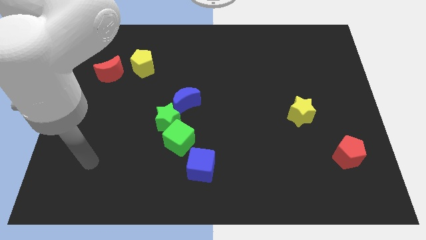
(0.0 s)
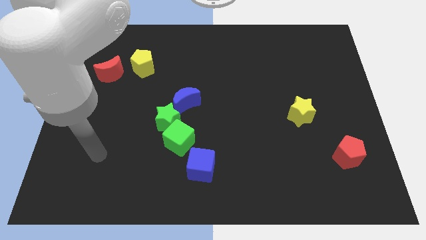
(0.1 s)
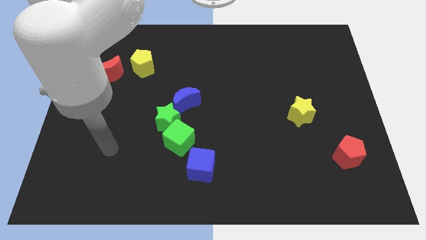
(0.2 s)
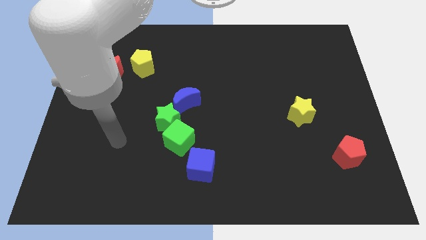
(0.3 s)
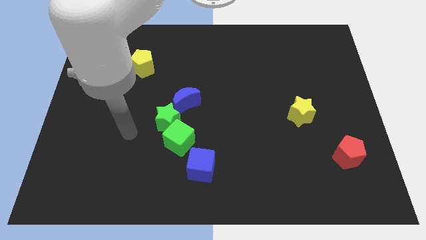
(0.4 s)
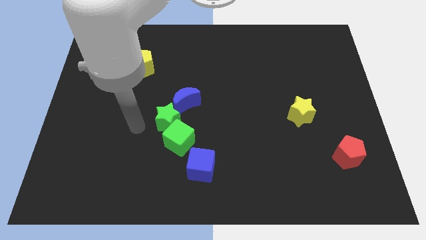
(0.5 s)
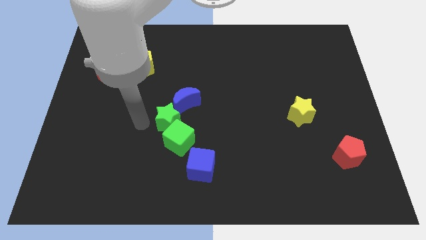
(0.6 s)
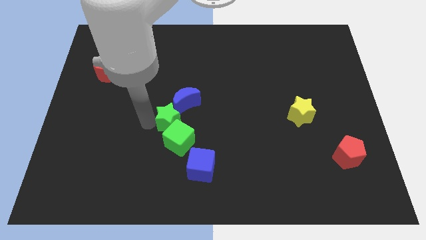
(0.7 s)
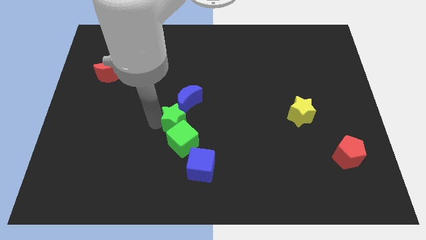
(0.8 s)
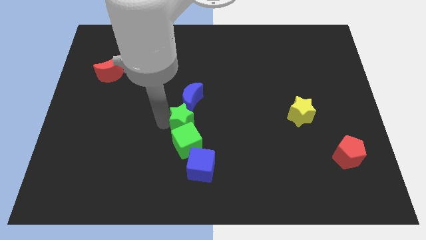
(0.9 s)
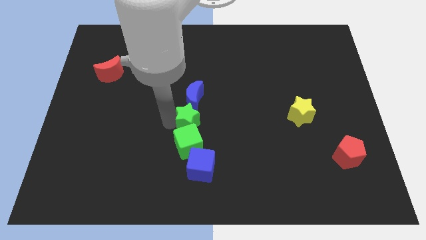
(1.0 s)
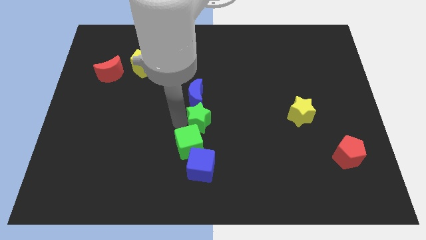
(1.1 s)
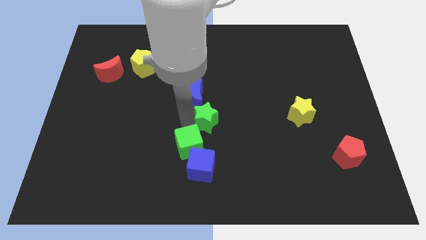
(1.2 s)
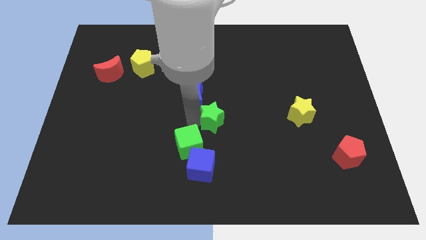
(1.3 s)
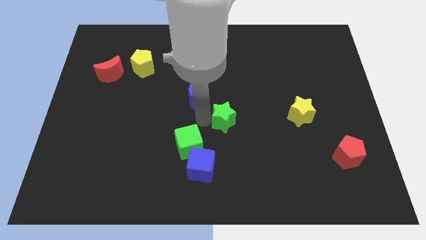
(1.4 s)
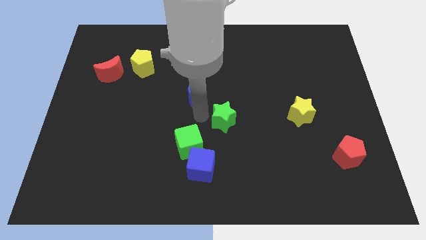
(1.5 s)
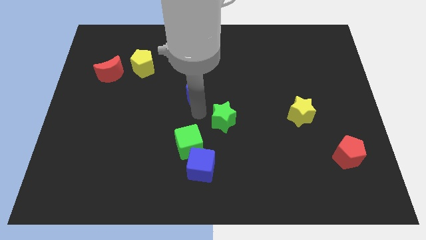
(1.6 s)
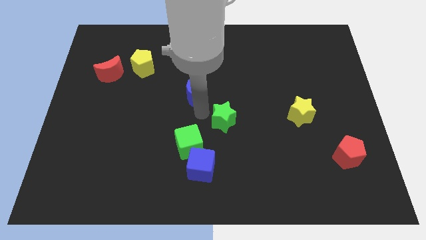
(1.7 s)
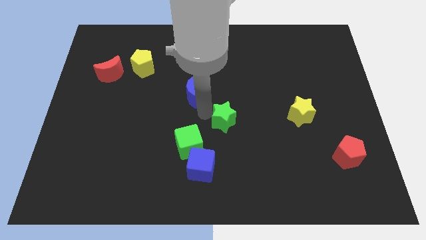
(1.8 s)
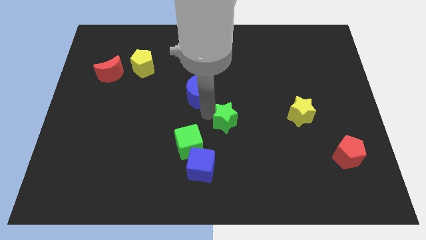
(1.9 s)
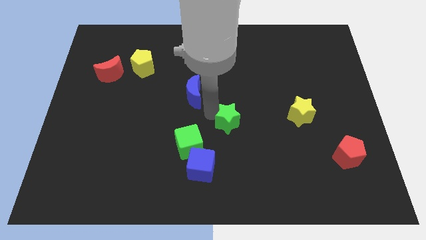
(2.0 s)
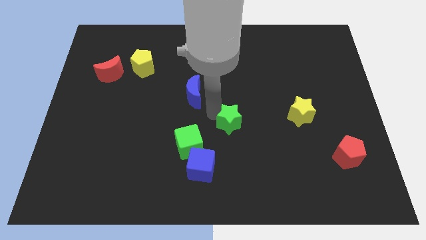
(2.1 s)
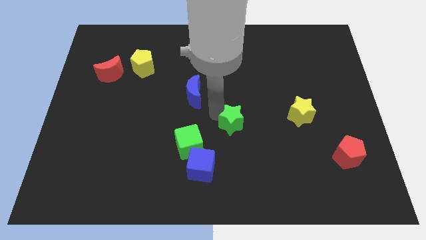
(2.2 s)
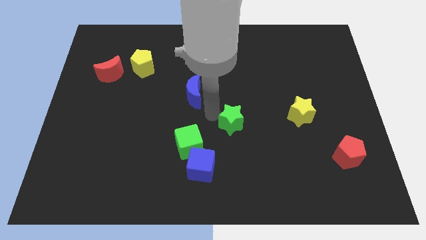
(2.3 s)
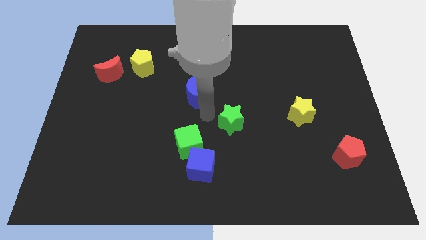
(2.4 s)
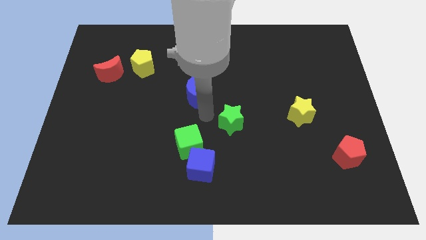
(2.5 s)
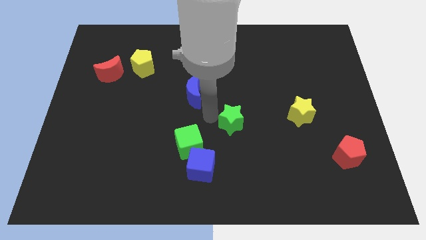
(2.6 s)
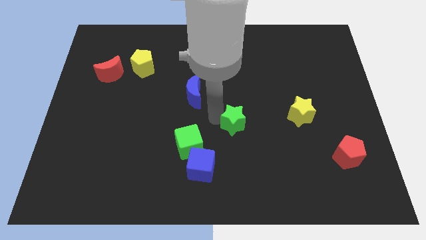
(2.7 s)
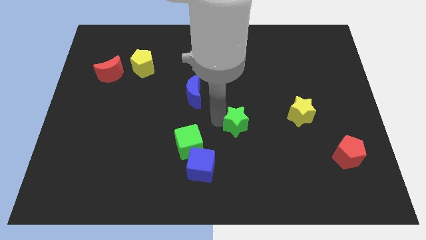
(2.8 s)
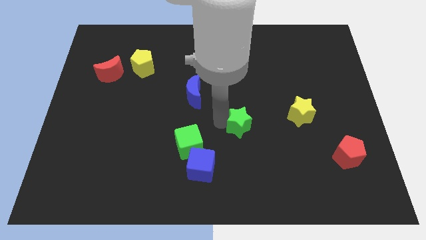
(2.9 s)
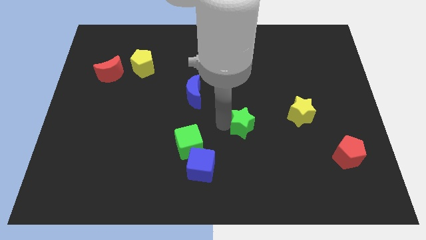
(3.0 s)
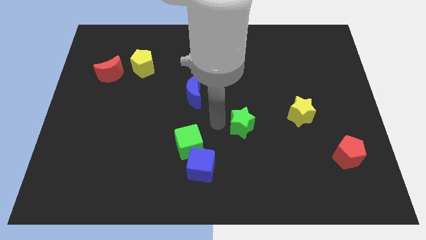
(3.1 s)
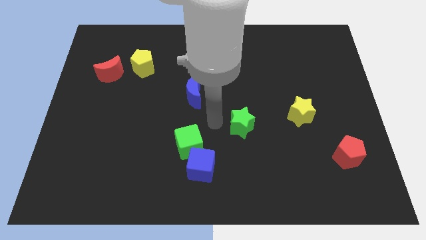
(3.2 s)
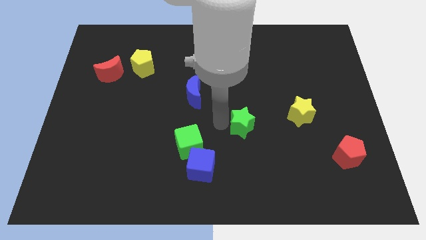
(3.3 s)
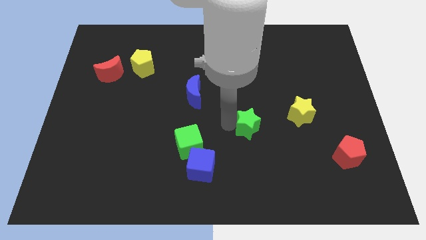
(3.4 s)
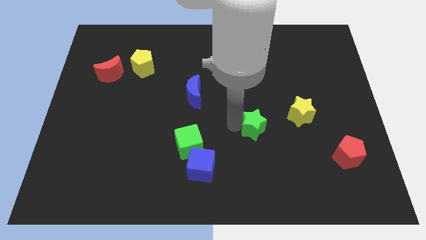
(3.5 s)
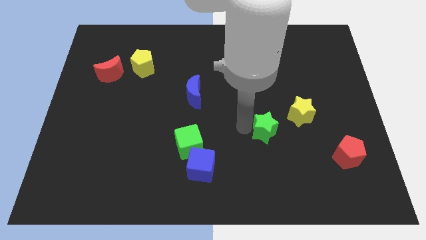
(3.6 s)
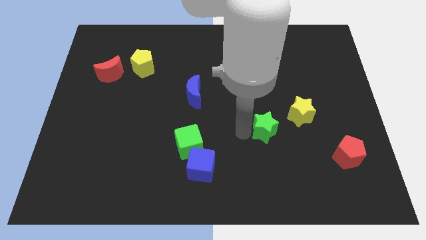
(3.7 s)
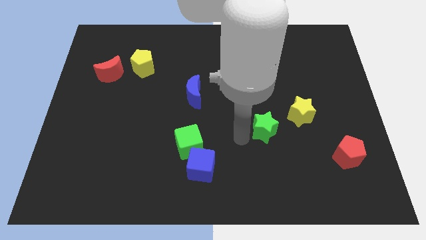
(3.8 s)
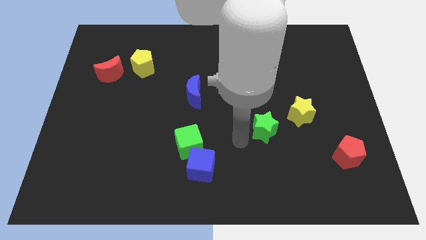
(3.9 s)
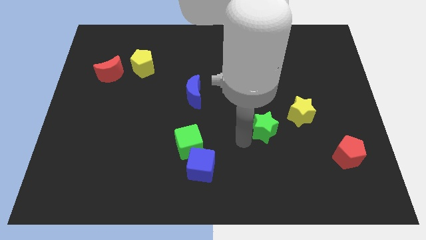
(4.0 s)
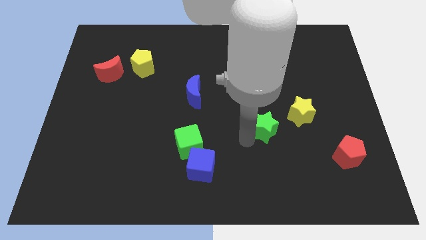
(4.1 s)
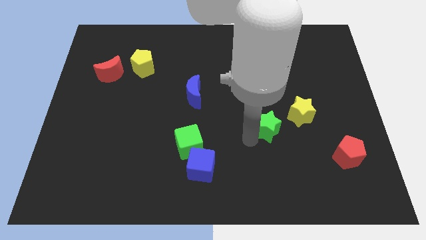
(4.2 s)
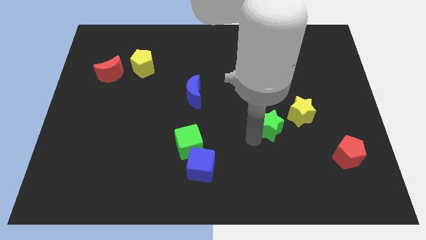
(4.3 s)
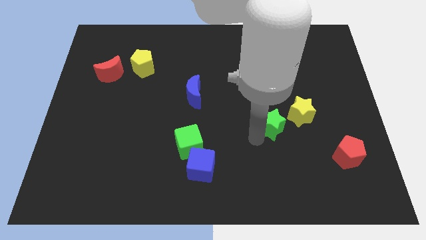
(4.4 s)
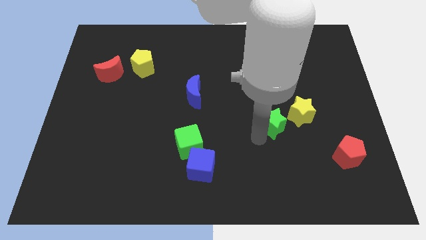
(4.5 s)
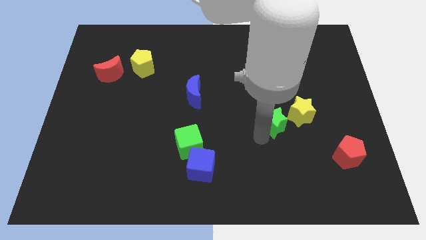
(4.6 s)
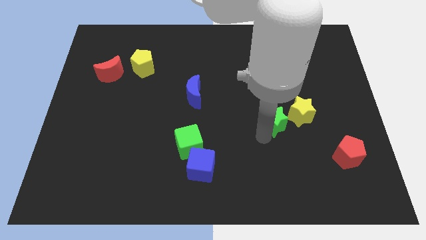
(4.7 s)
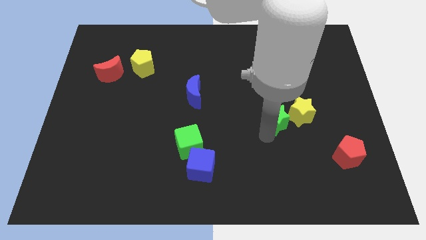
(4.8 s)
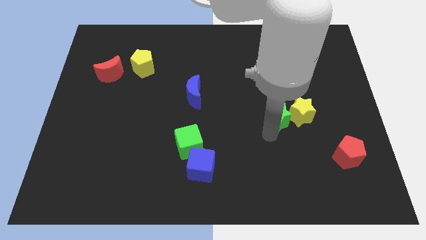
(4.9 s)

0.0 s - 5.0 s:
push the green star next to the yellow star

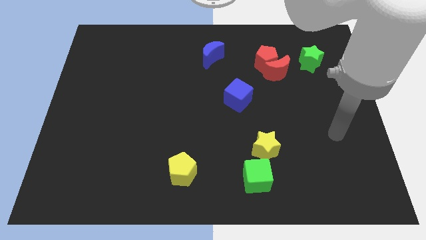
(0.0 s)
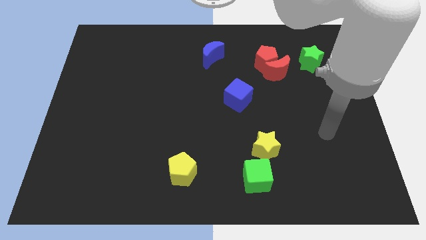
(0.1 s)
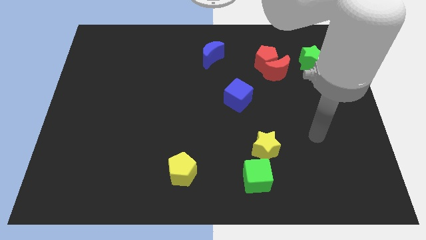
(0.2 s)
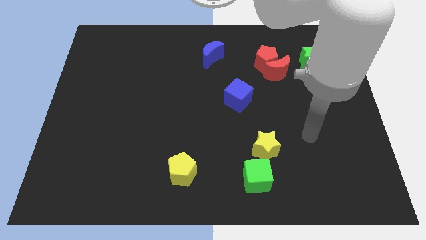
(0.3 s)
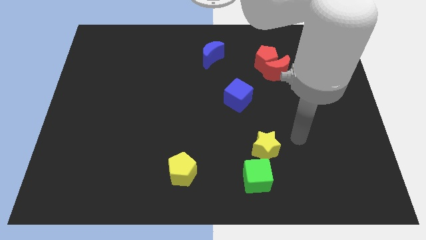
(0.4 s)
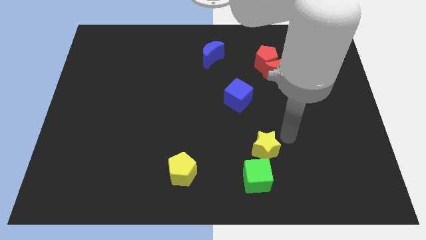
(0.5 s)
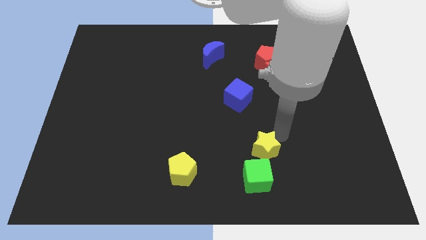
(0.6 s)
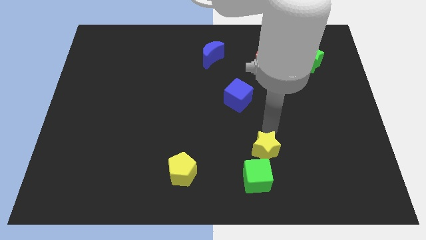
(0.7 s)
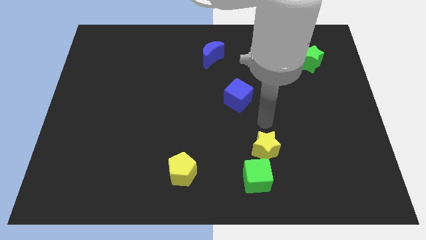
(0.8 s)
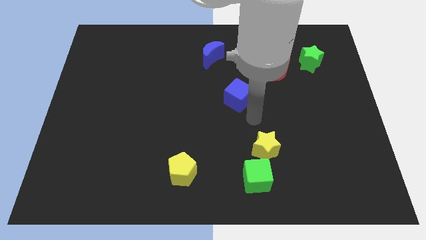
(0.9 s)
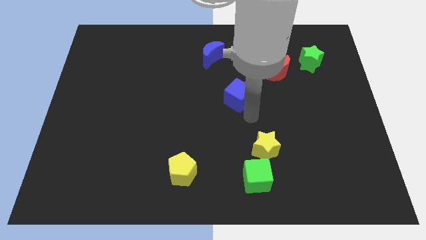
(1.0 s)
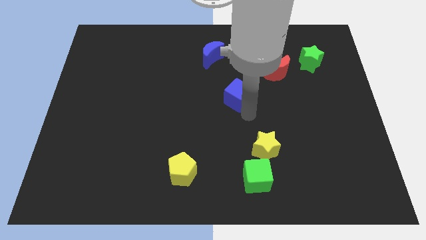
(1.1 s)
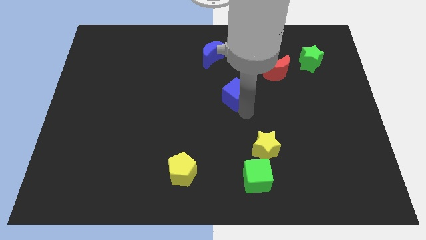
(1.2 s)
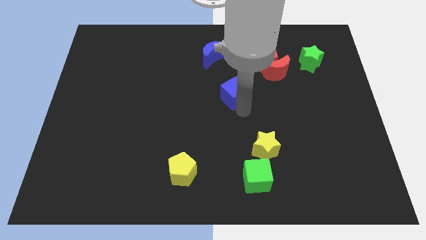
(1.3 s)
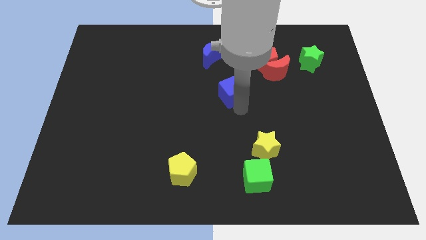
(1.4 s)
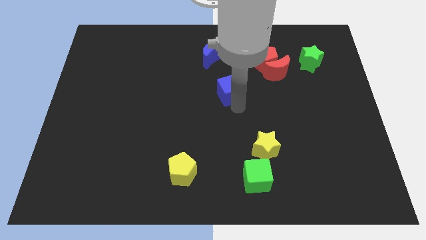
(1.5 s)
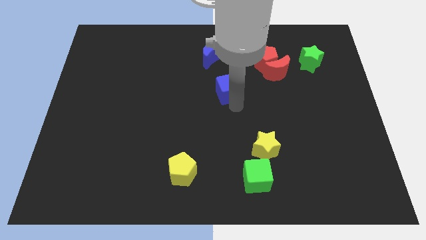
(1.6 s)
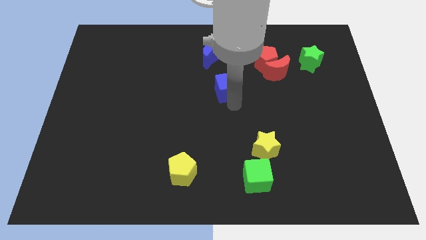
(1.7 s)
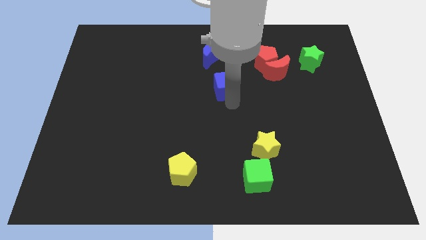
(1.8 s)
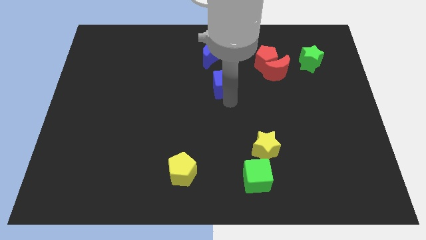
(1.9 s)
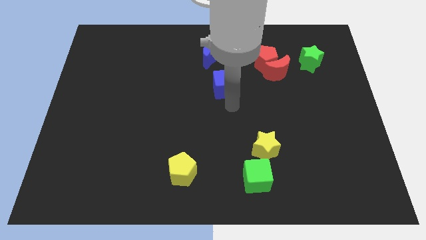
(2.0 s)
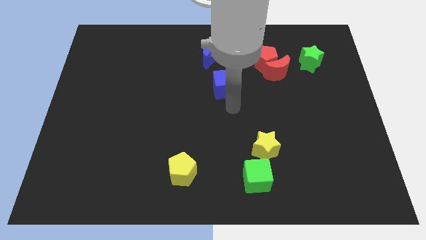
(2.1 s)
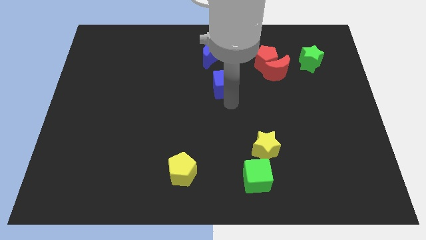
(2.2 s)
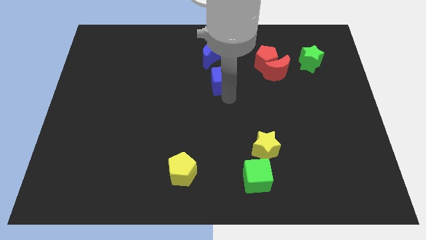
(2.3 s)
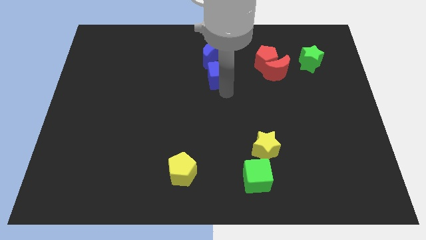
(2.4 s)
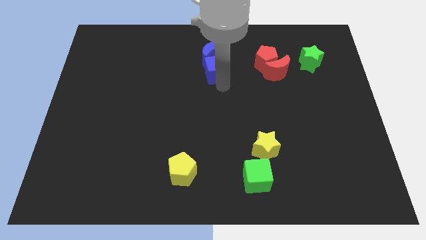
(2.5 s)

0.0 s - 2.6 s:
put the blue cube to the blue moon
